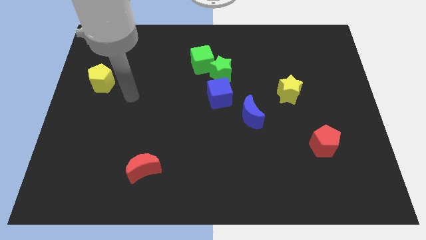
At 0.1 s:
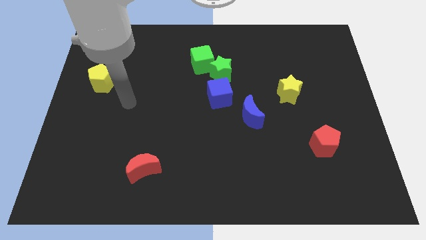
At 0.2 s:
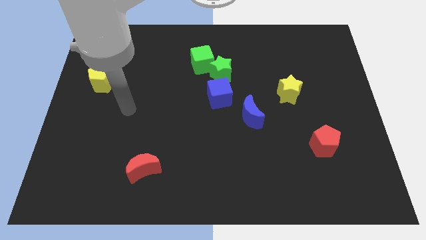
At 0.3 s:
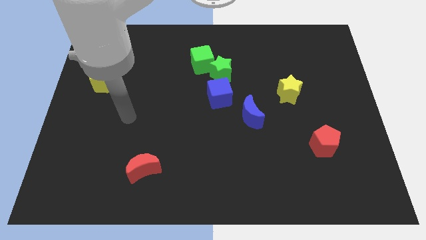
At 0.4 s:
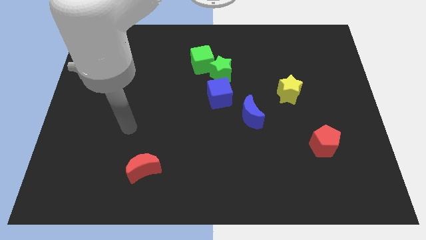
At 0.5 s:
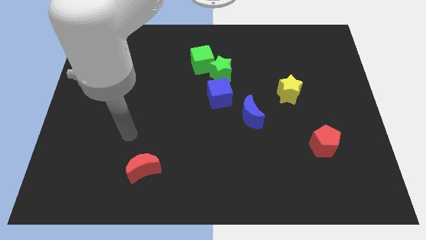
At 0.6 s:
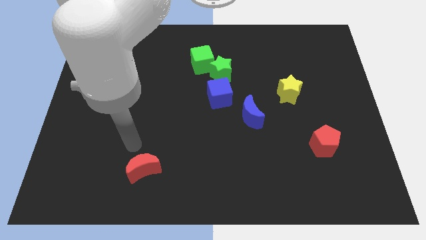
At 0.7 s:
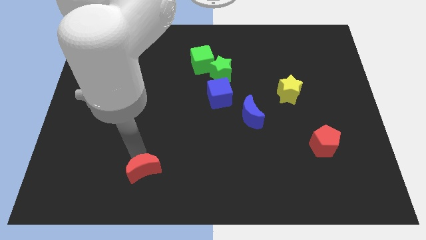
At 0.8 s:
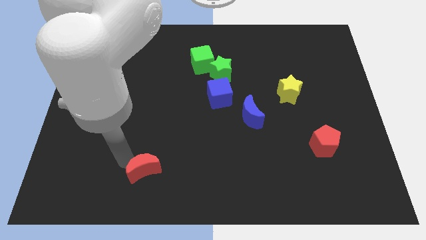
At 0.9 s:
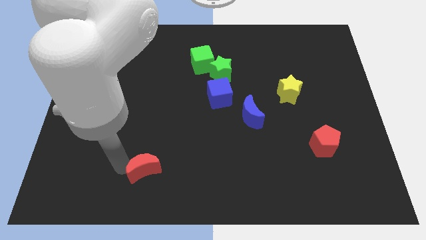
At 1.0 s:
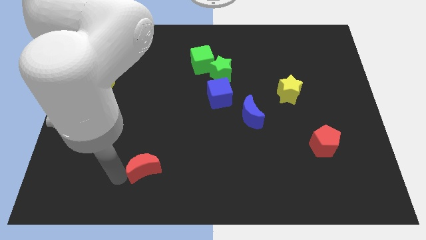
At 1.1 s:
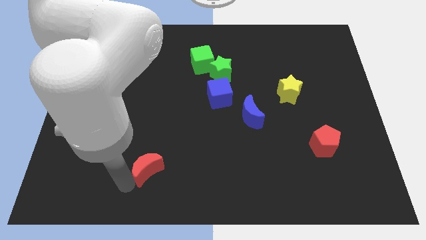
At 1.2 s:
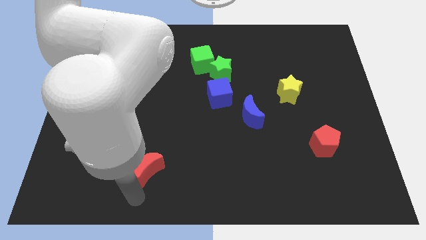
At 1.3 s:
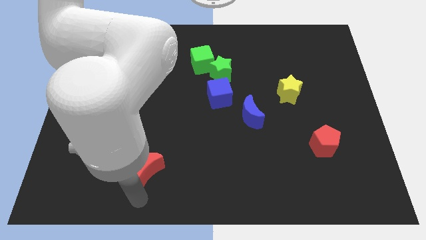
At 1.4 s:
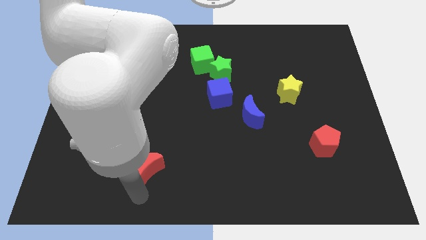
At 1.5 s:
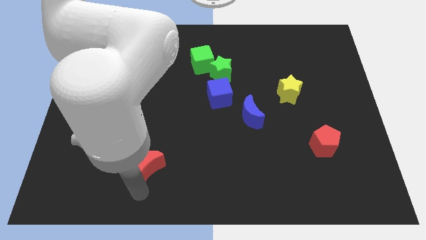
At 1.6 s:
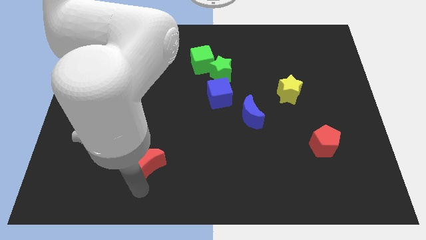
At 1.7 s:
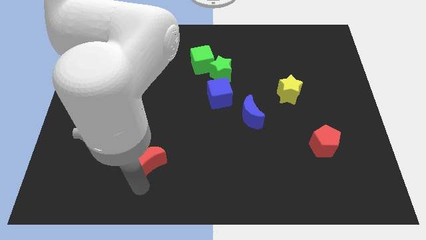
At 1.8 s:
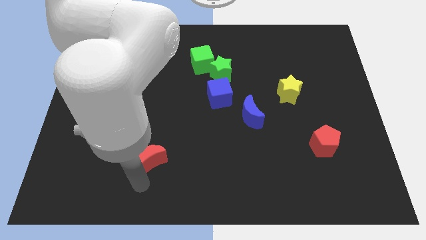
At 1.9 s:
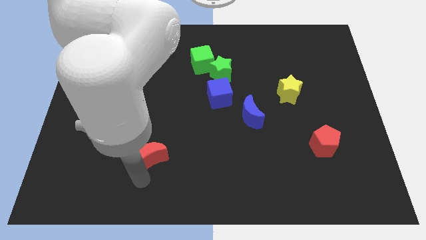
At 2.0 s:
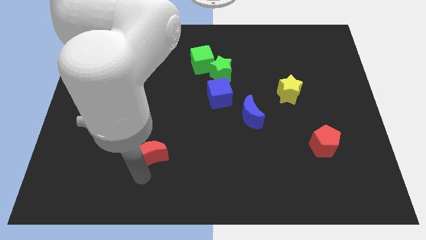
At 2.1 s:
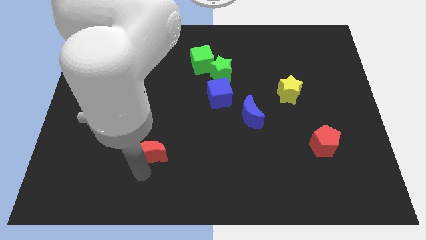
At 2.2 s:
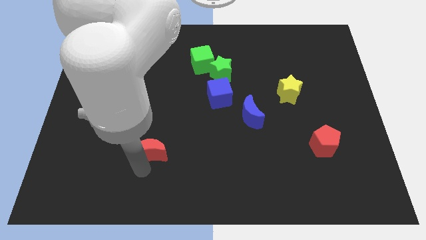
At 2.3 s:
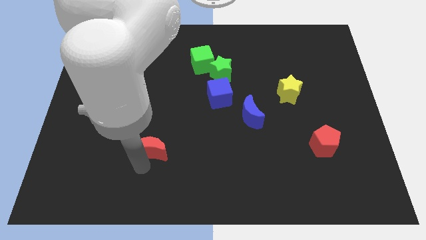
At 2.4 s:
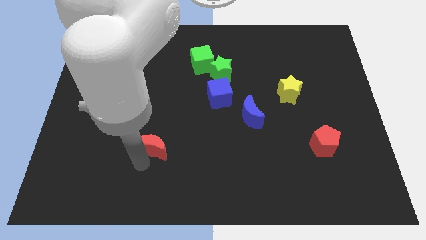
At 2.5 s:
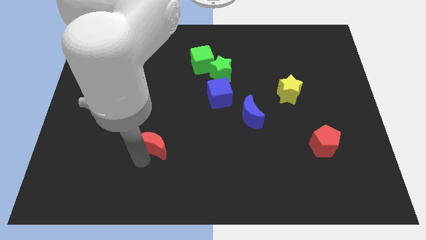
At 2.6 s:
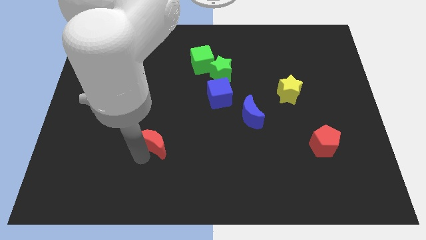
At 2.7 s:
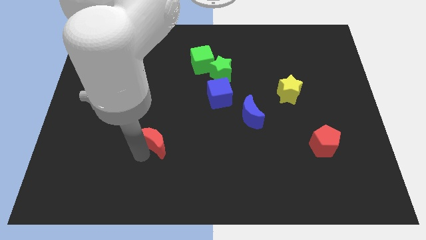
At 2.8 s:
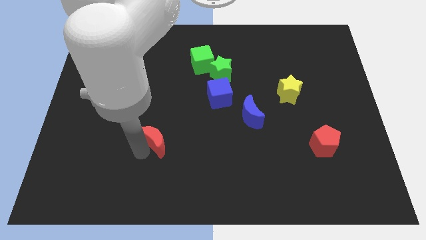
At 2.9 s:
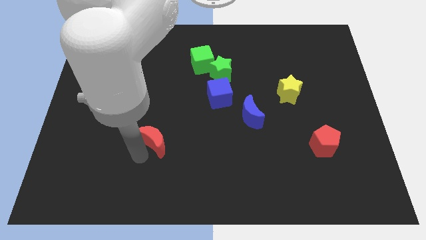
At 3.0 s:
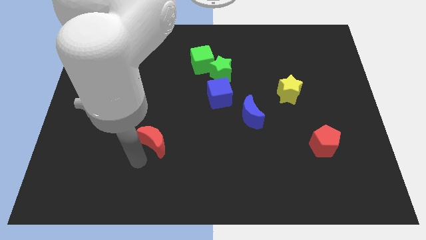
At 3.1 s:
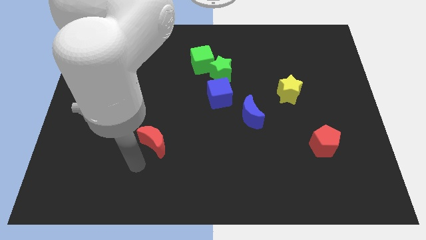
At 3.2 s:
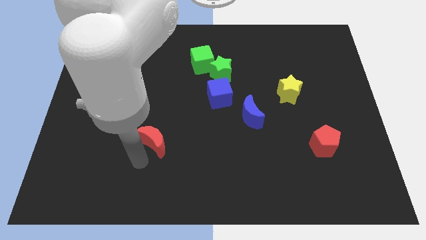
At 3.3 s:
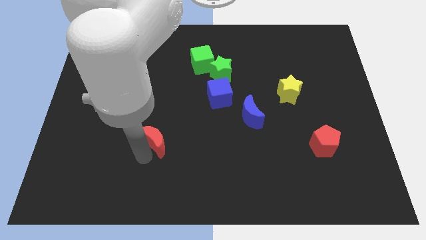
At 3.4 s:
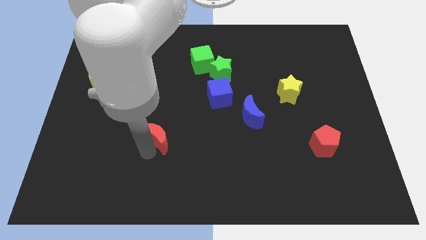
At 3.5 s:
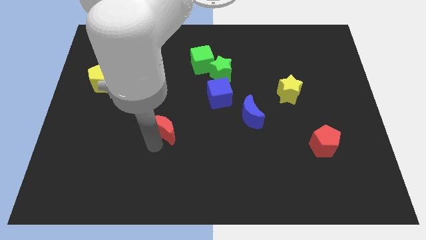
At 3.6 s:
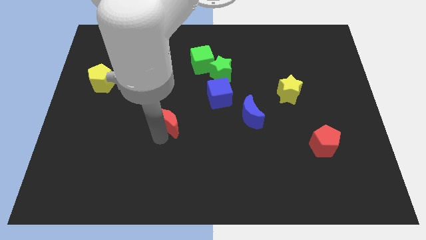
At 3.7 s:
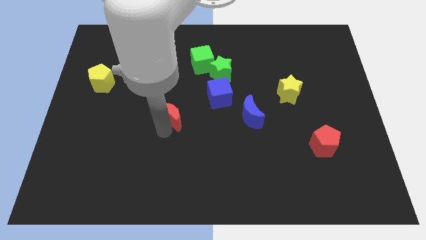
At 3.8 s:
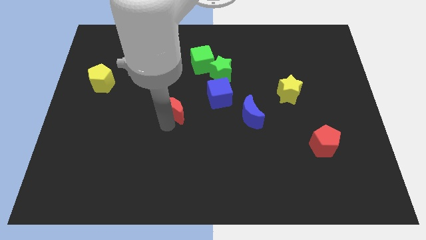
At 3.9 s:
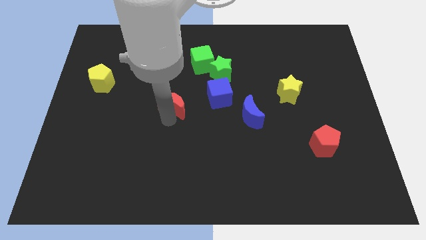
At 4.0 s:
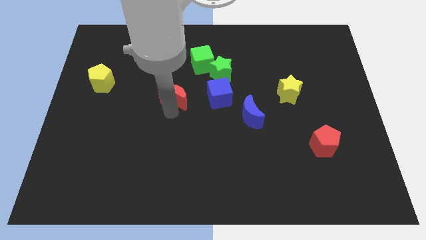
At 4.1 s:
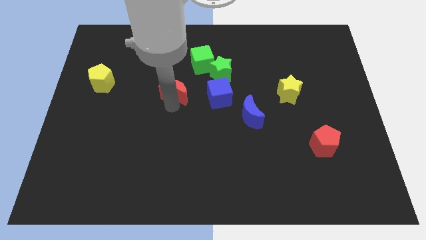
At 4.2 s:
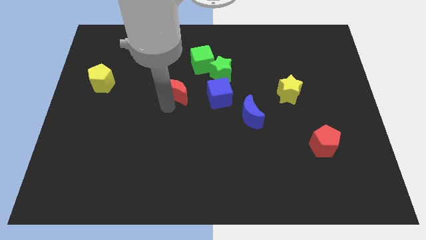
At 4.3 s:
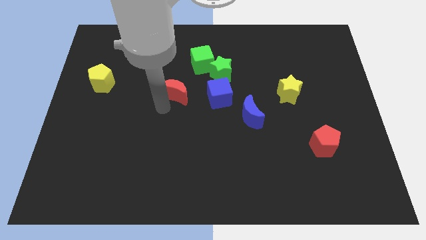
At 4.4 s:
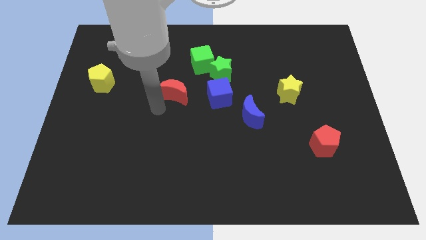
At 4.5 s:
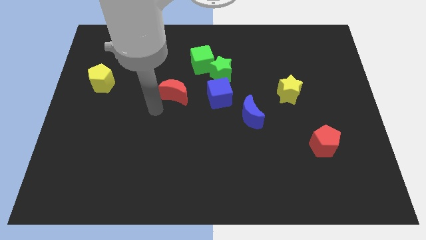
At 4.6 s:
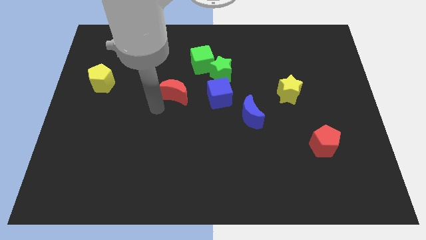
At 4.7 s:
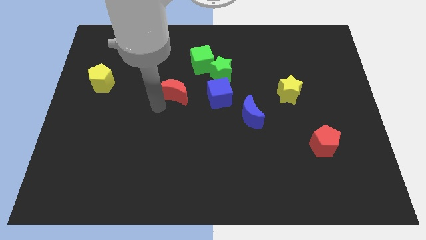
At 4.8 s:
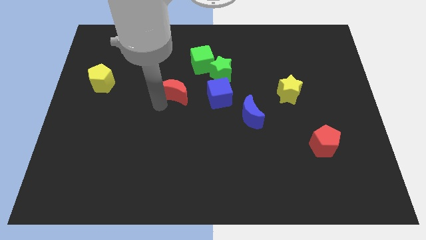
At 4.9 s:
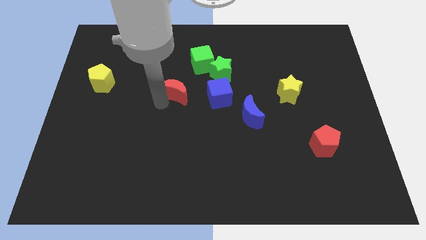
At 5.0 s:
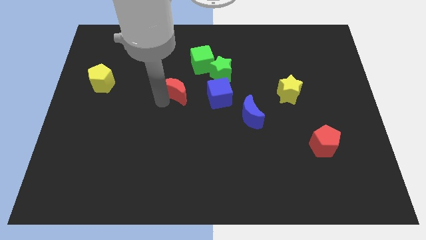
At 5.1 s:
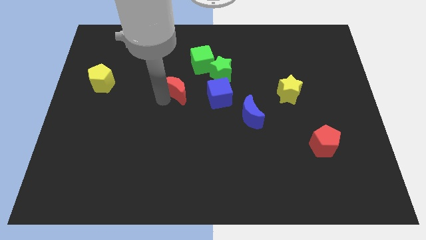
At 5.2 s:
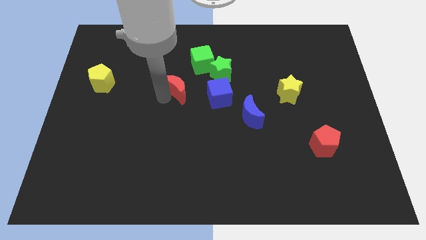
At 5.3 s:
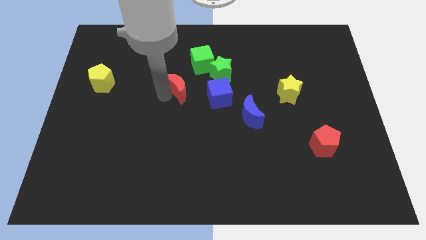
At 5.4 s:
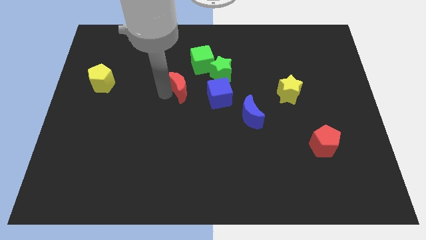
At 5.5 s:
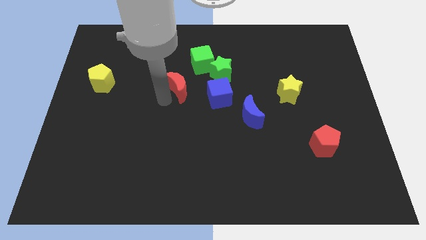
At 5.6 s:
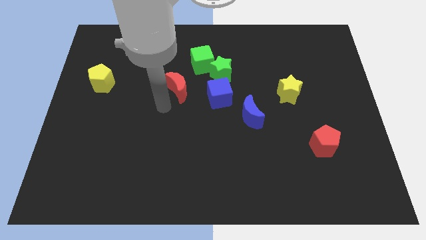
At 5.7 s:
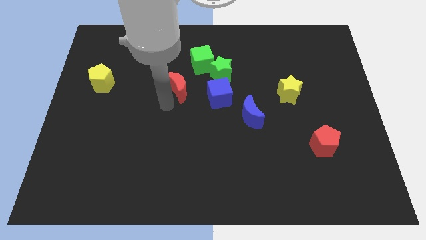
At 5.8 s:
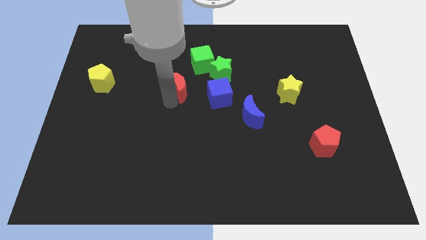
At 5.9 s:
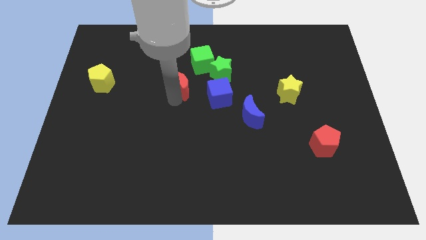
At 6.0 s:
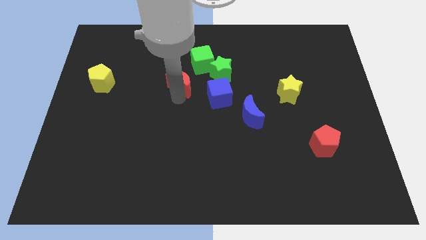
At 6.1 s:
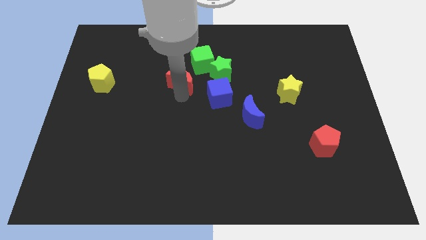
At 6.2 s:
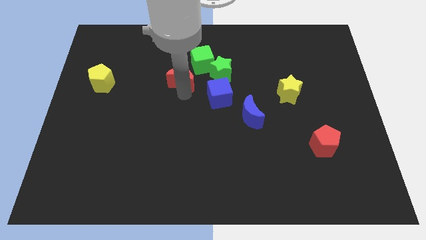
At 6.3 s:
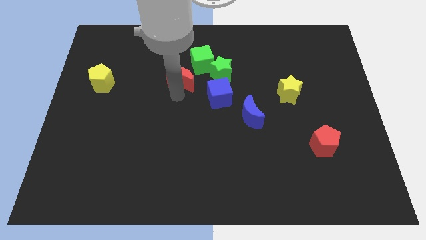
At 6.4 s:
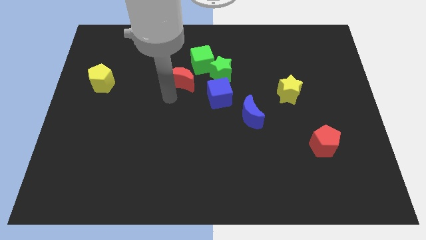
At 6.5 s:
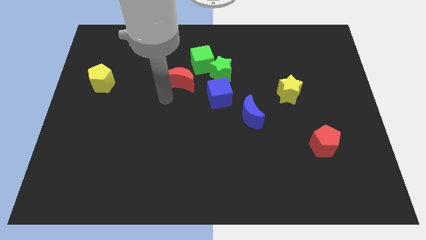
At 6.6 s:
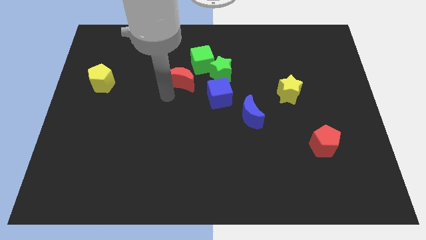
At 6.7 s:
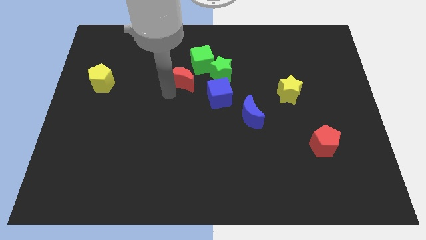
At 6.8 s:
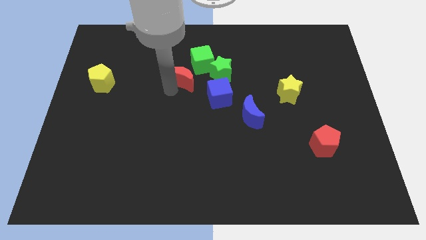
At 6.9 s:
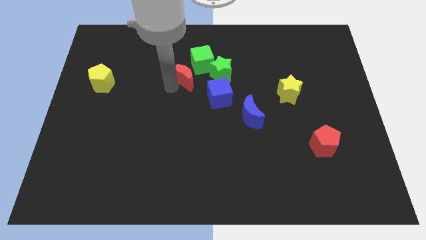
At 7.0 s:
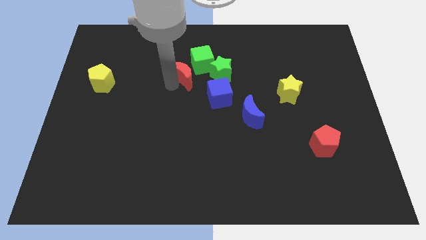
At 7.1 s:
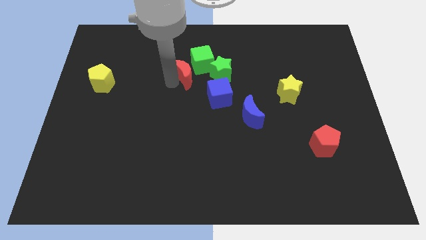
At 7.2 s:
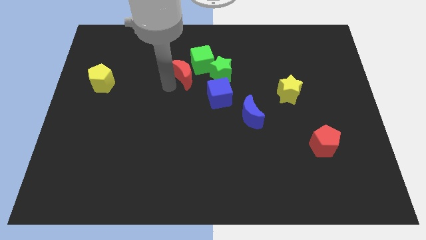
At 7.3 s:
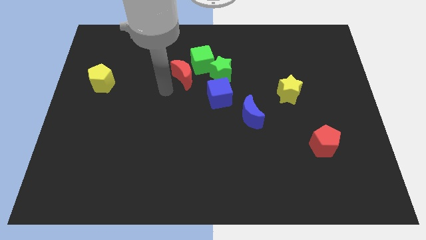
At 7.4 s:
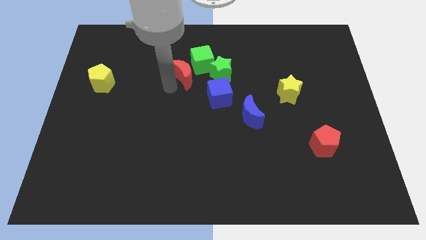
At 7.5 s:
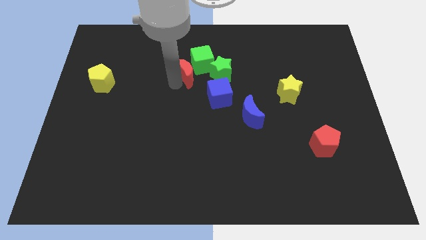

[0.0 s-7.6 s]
slide the red moon towards the green cube
